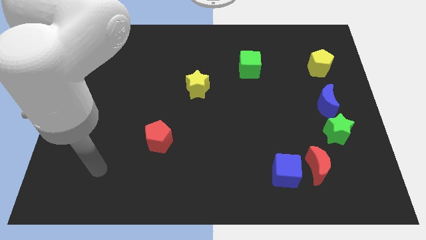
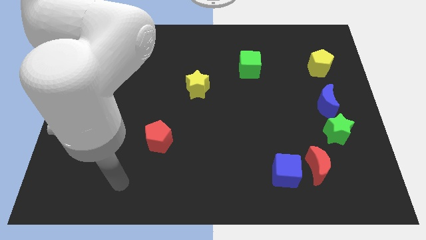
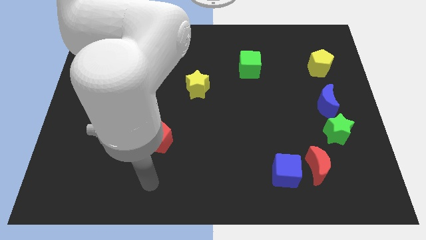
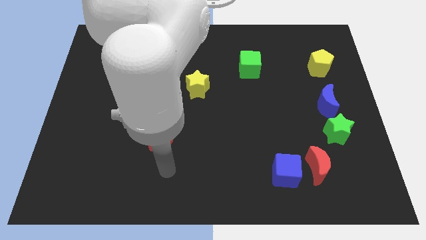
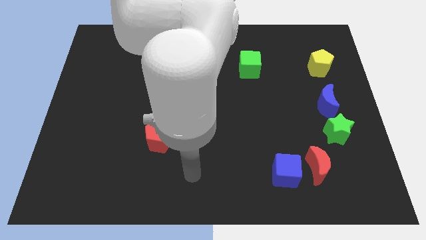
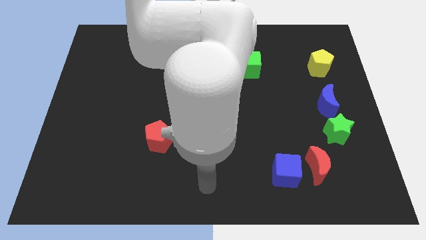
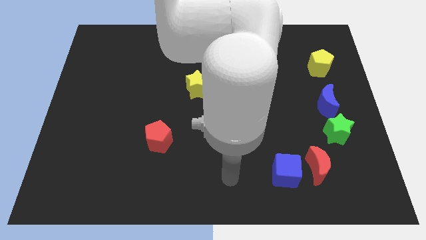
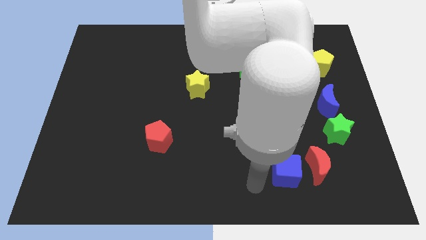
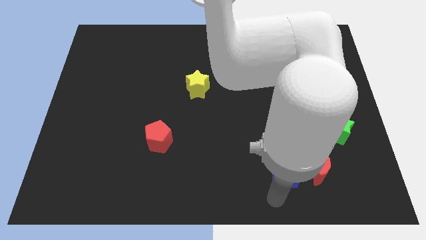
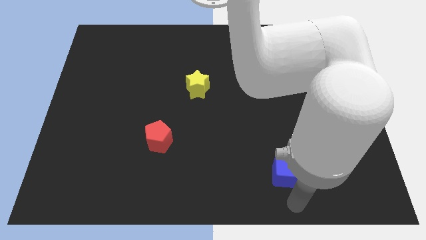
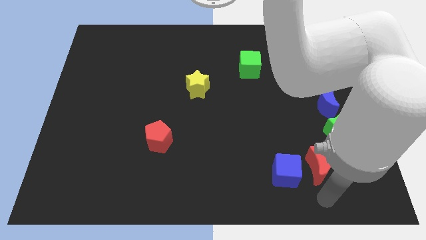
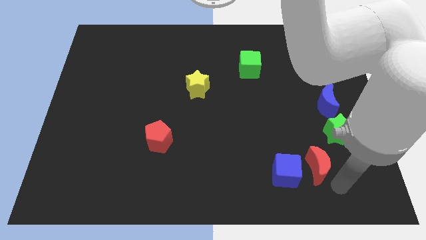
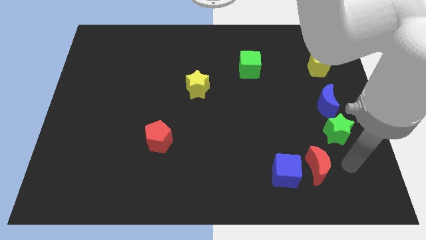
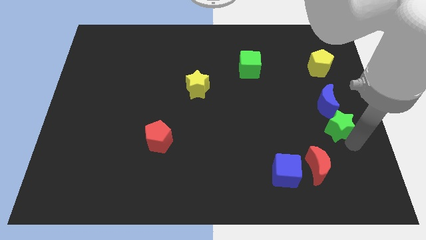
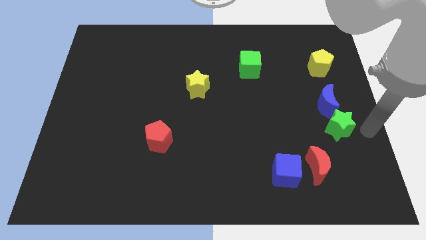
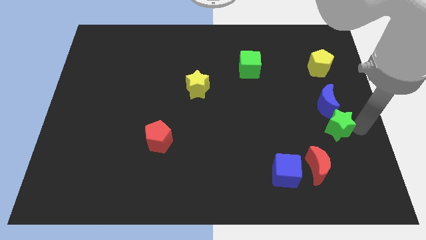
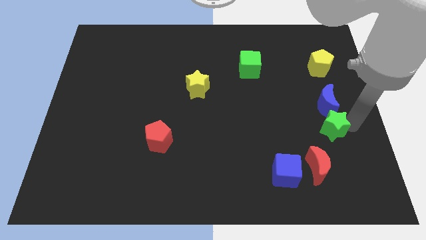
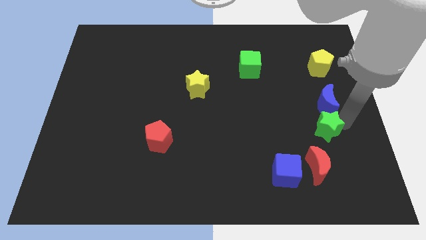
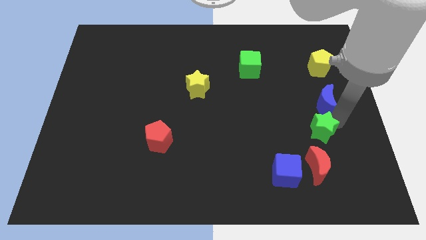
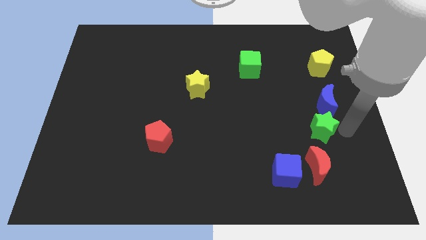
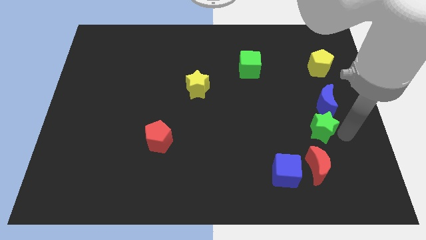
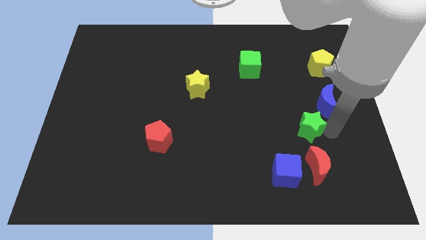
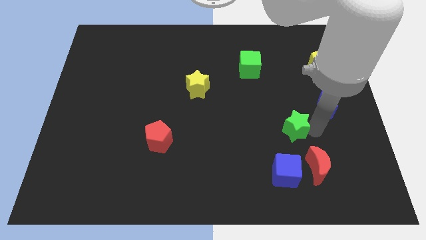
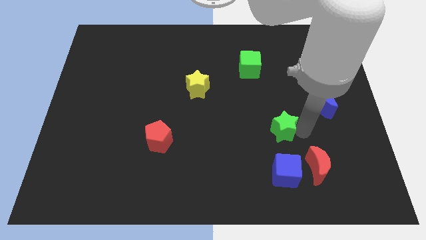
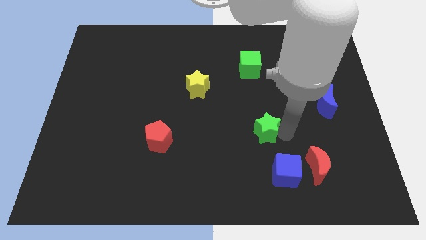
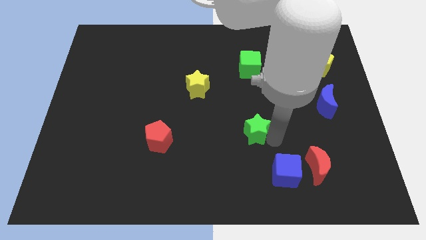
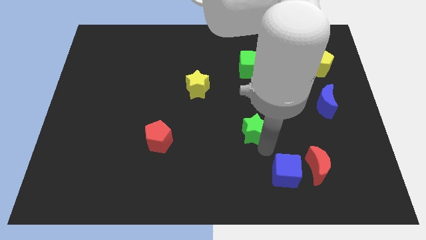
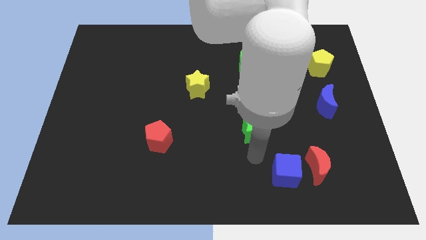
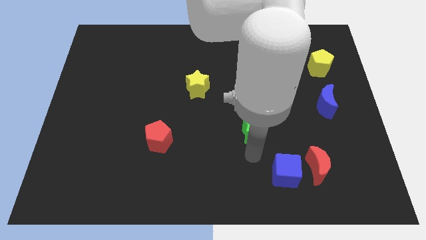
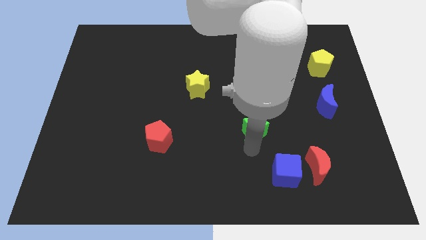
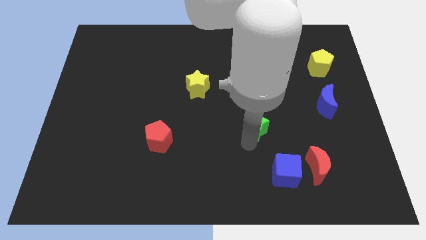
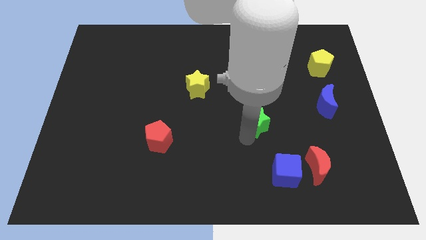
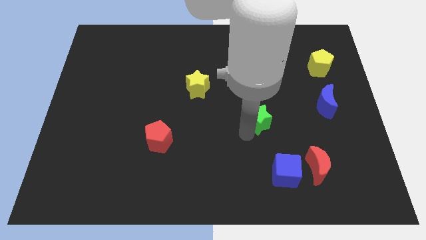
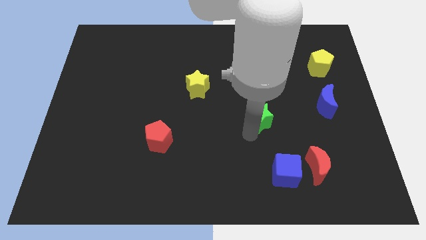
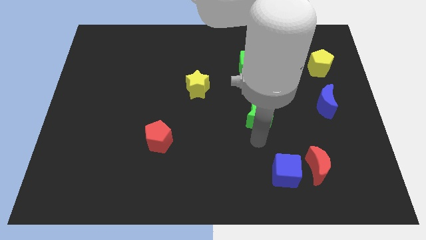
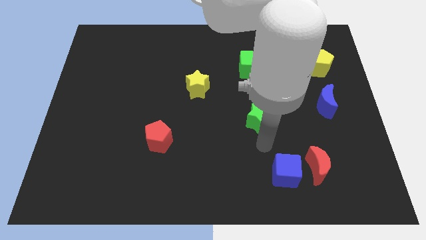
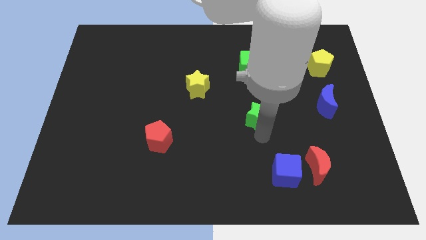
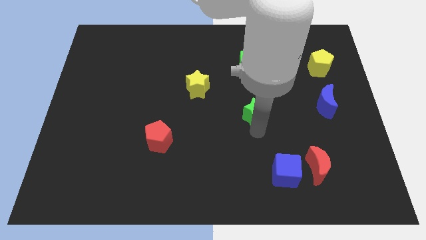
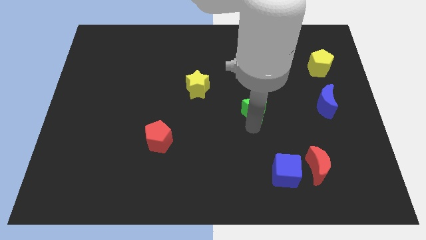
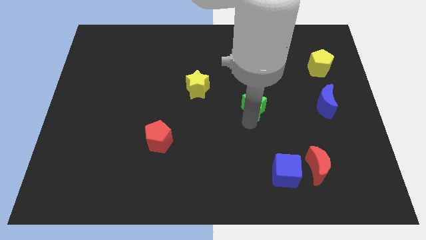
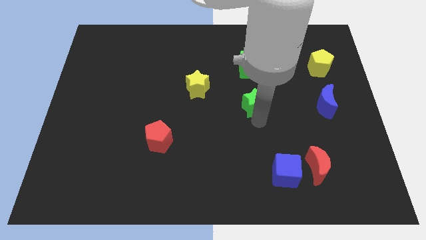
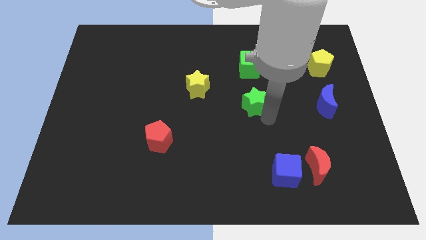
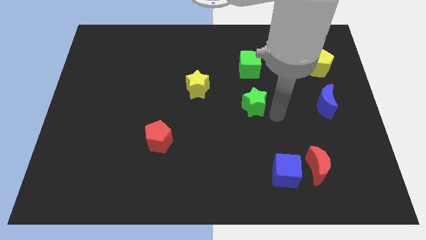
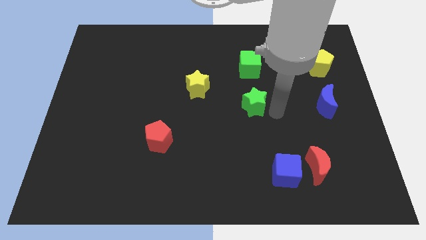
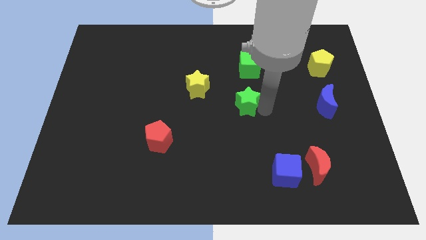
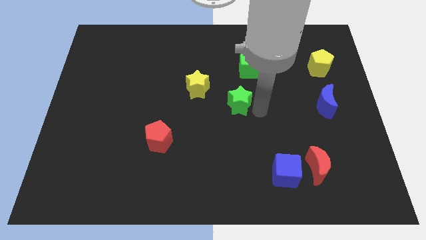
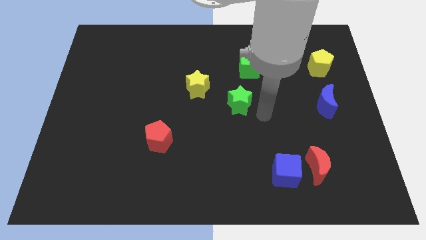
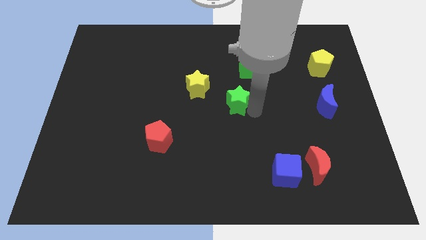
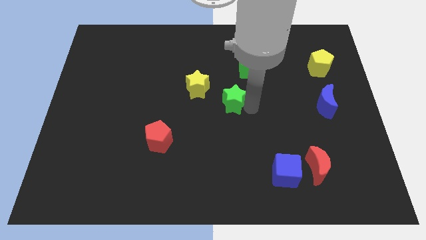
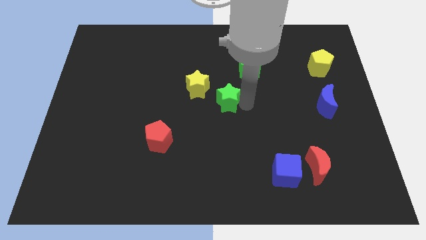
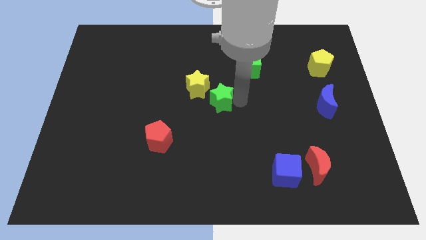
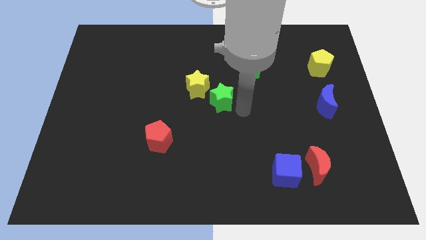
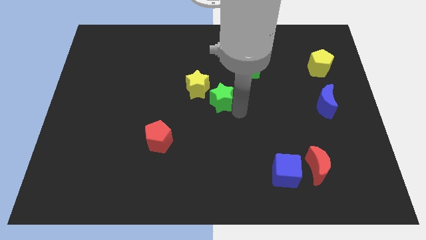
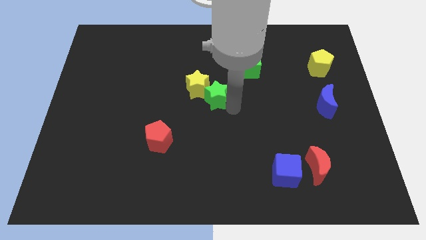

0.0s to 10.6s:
slide the green star towards the yellow star

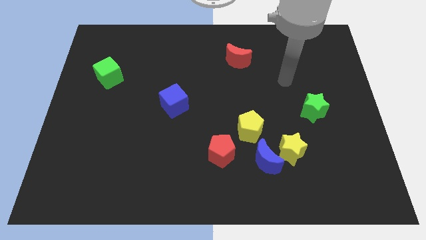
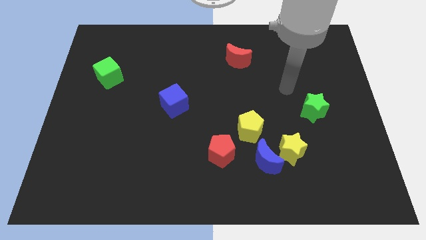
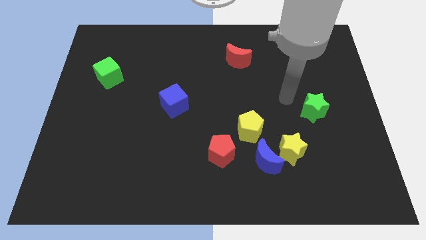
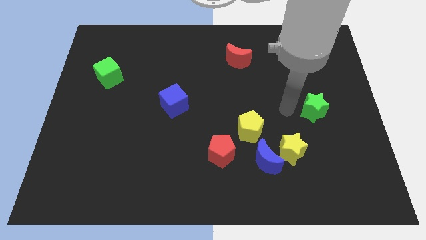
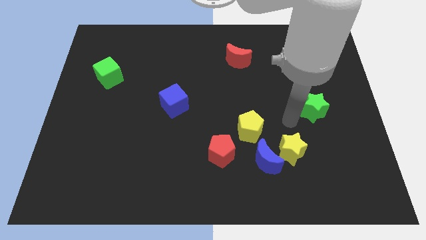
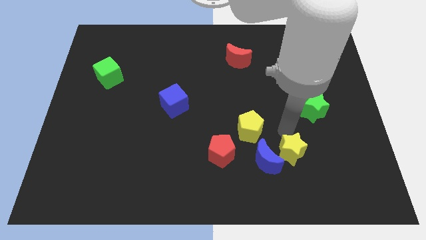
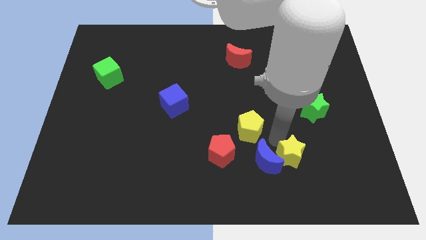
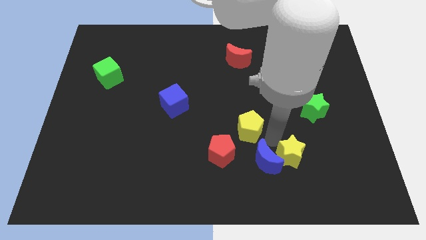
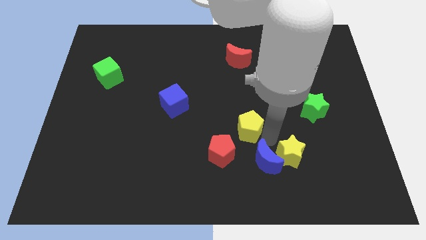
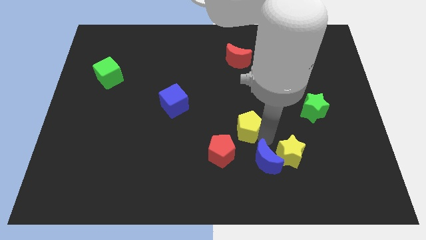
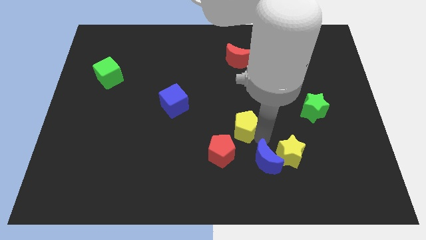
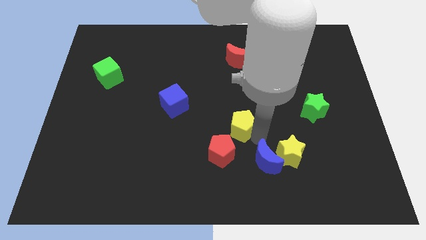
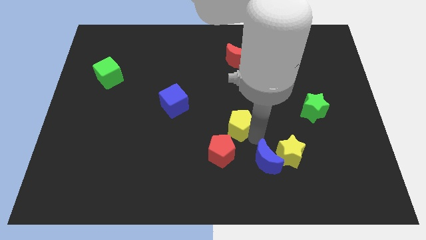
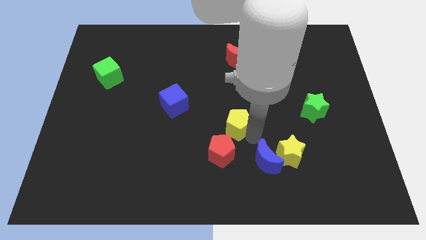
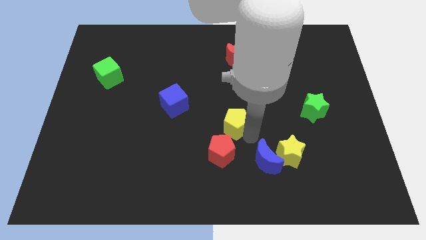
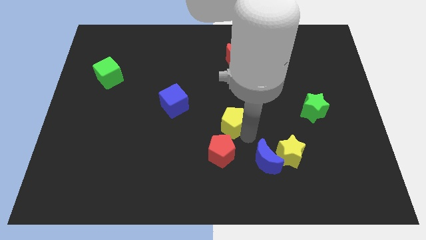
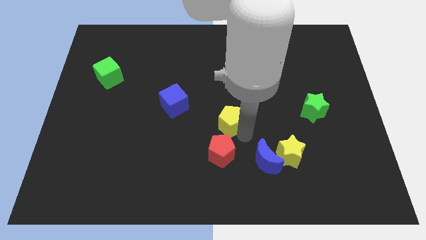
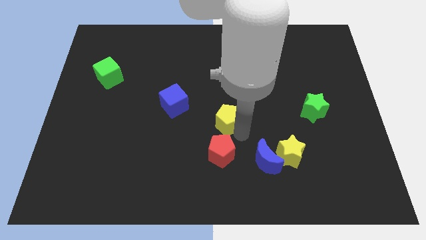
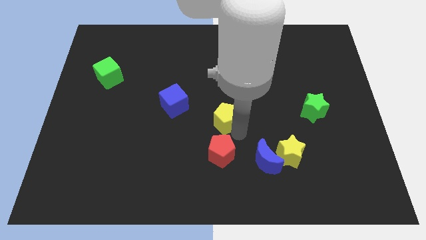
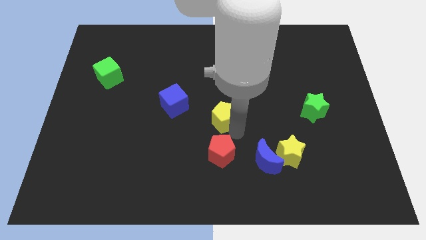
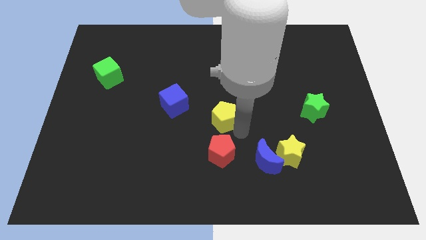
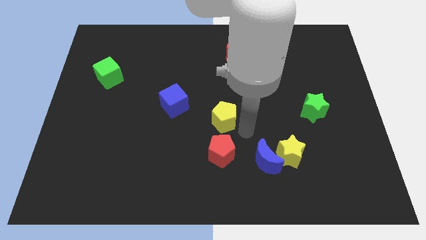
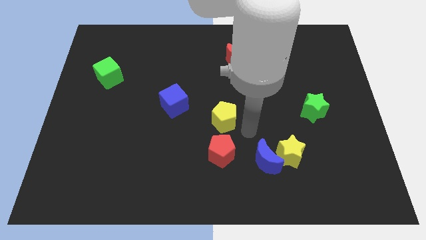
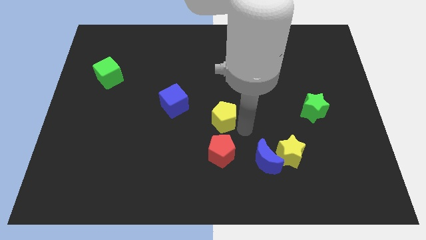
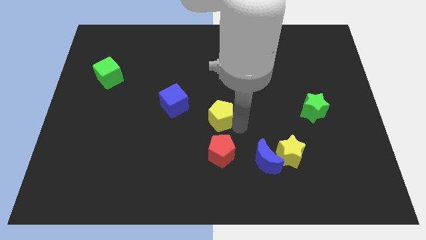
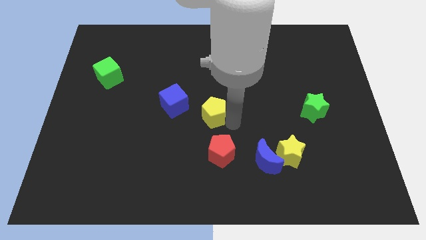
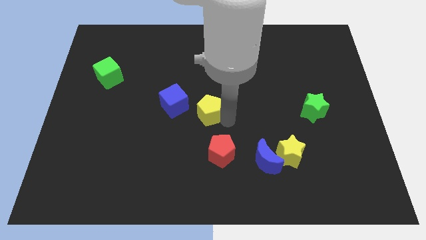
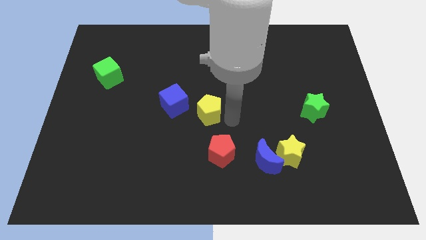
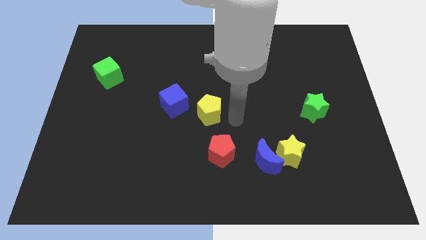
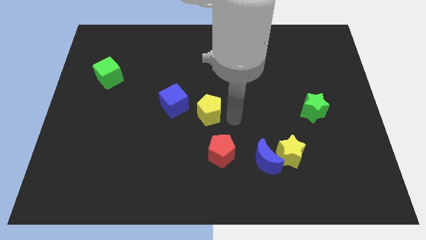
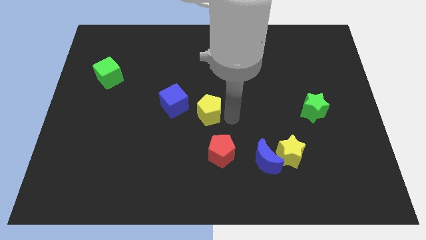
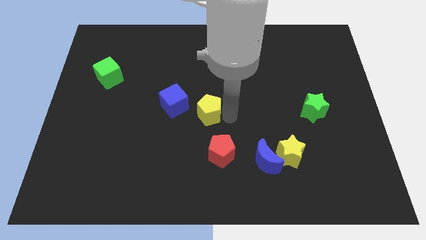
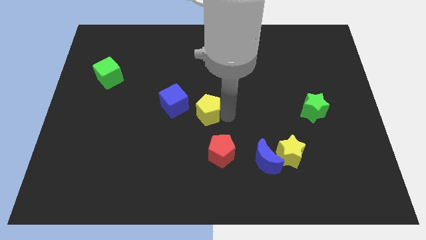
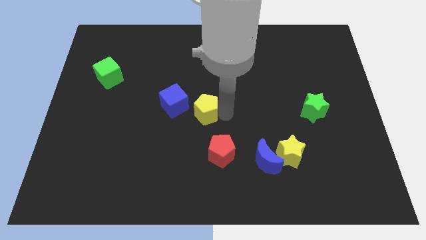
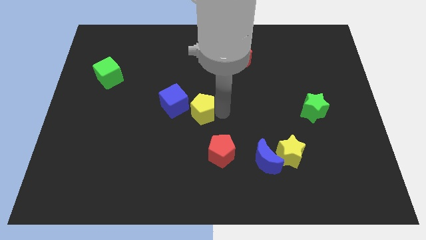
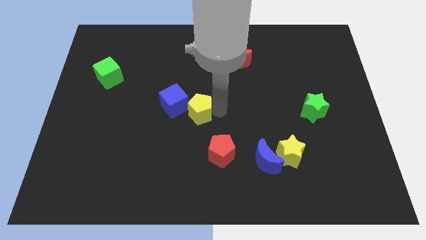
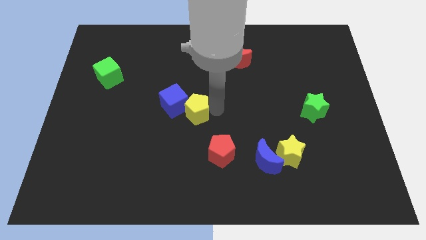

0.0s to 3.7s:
put the yellow pentagon to the blue cube
